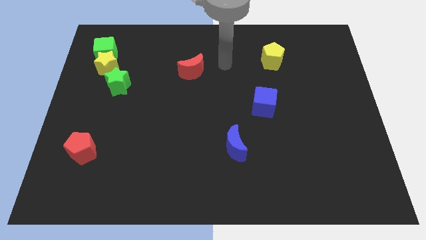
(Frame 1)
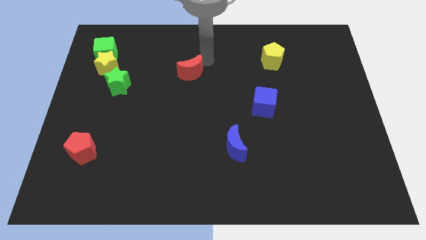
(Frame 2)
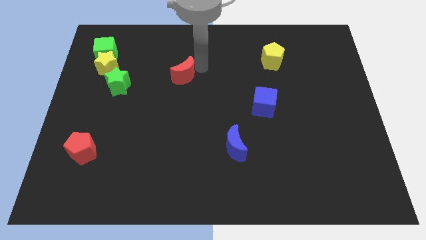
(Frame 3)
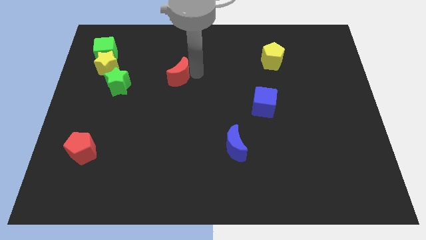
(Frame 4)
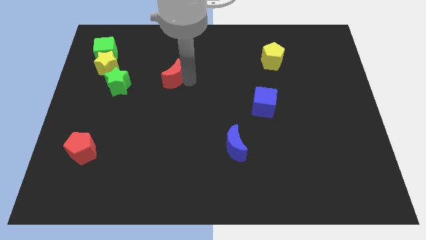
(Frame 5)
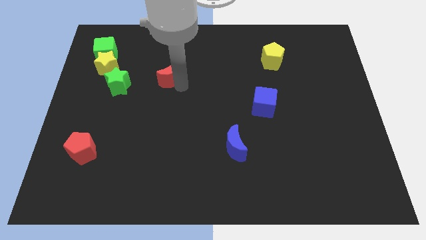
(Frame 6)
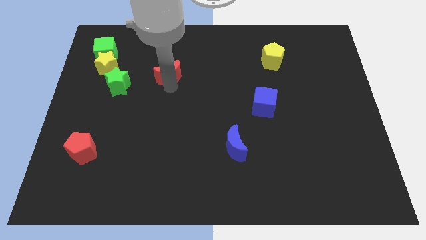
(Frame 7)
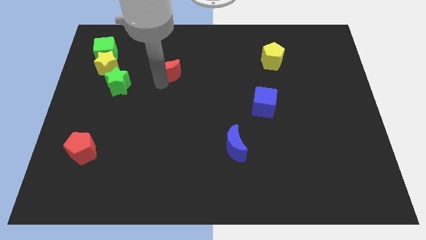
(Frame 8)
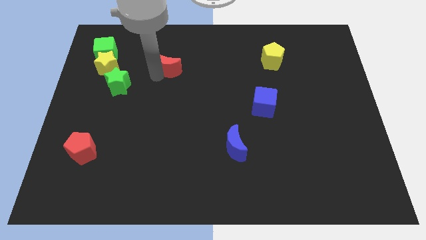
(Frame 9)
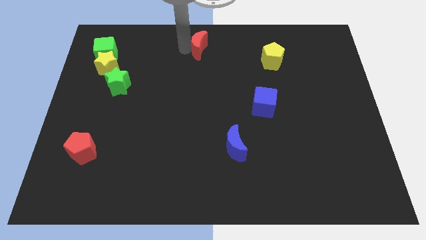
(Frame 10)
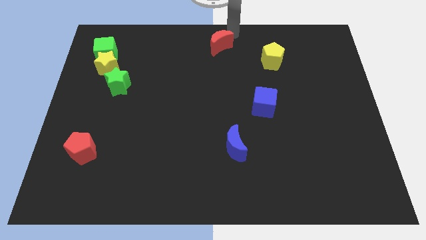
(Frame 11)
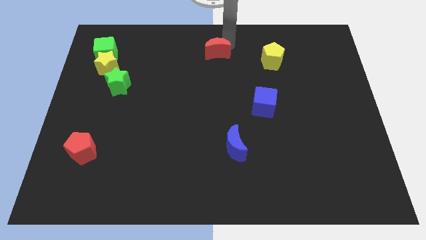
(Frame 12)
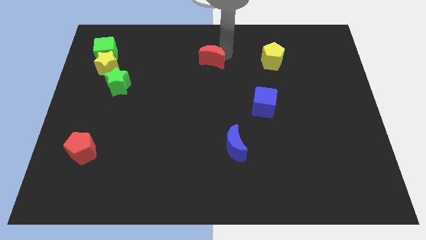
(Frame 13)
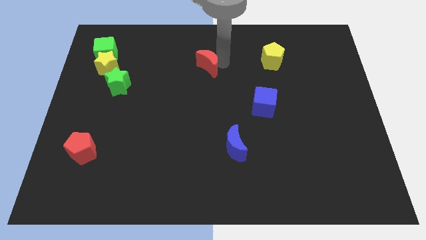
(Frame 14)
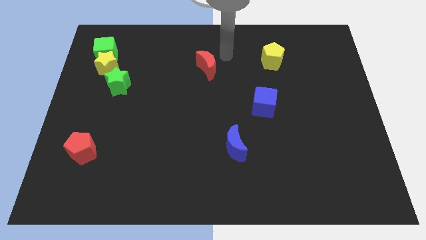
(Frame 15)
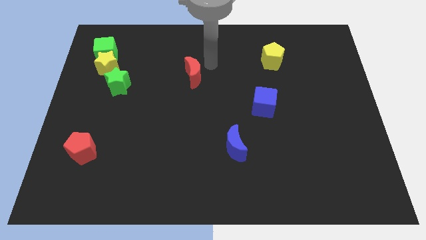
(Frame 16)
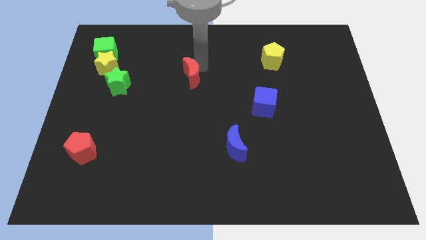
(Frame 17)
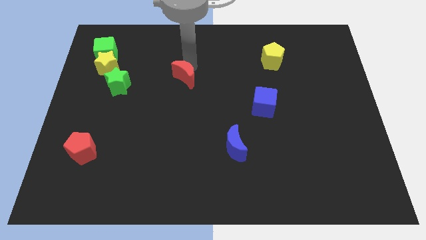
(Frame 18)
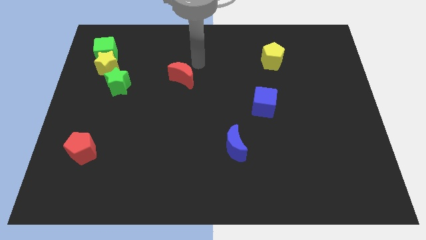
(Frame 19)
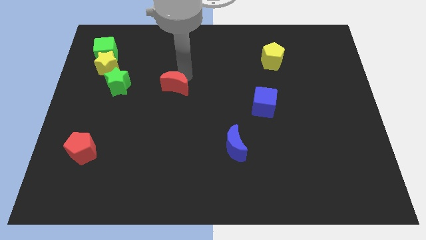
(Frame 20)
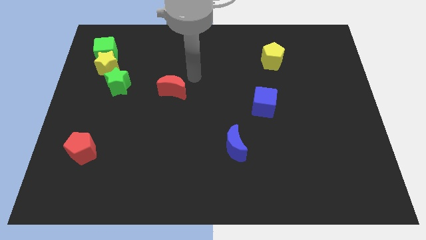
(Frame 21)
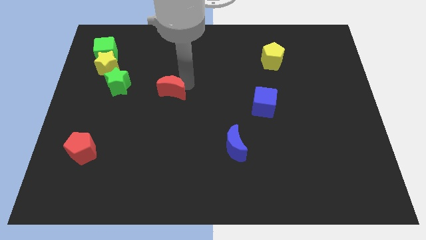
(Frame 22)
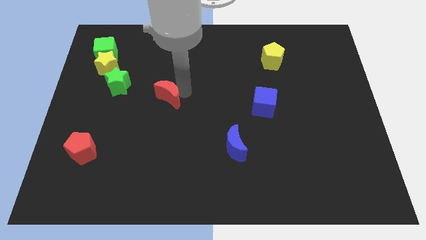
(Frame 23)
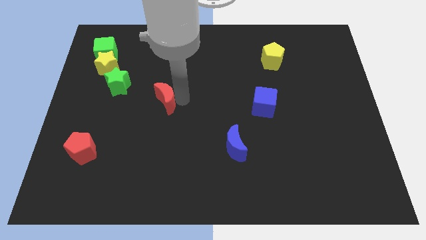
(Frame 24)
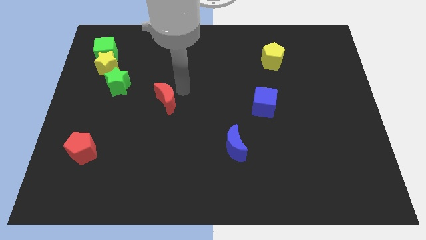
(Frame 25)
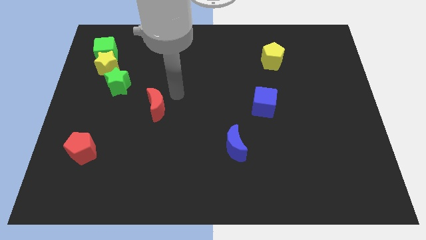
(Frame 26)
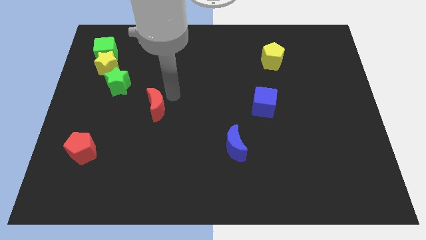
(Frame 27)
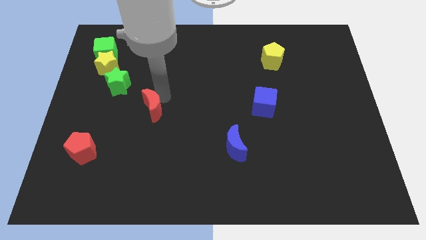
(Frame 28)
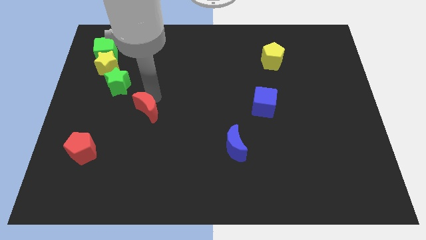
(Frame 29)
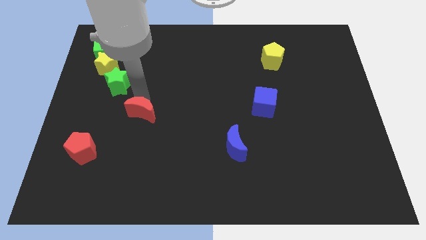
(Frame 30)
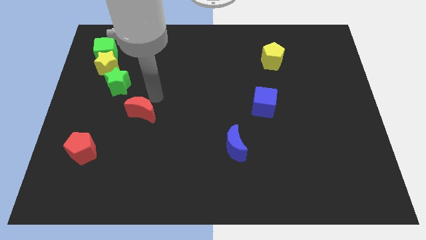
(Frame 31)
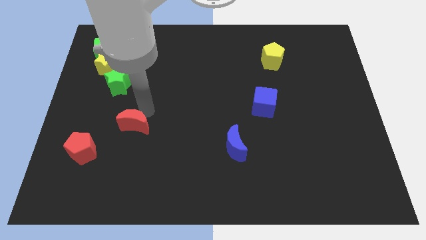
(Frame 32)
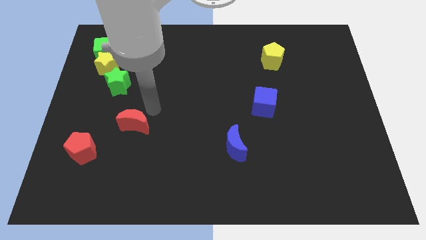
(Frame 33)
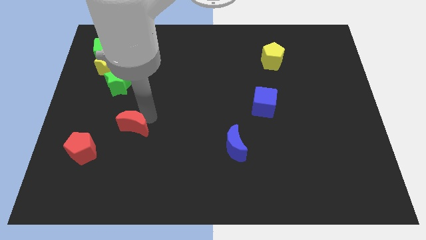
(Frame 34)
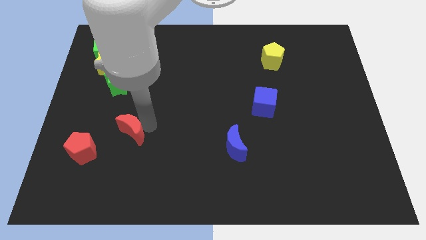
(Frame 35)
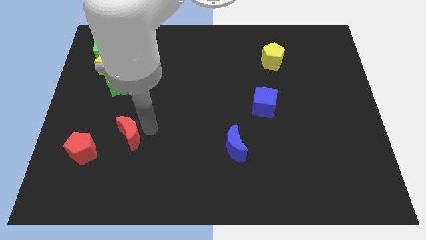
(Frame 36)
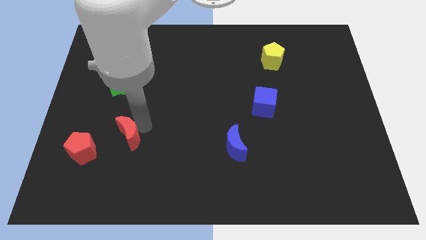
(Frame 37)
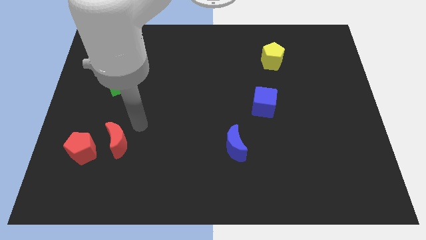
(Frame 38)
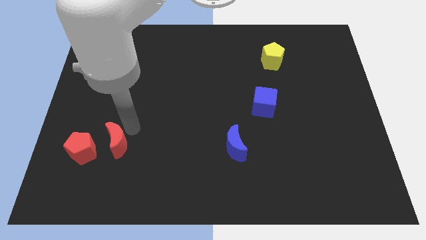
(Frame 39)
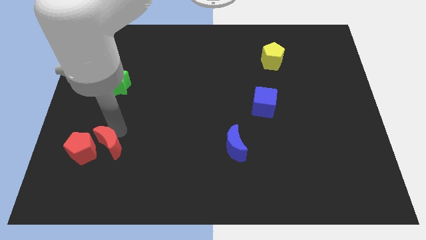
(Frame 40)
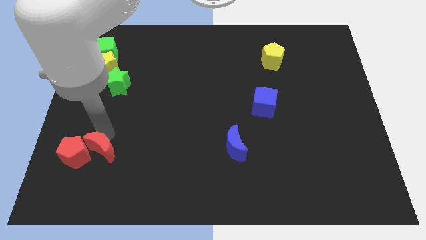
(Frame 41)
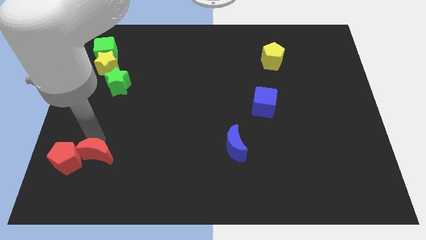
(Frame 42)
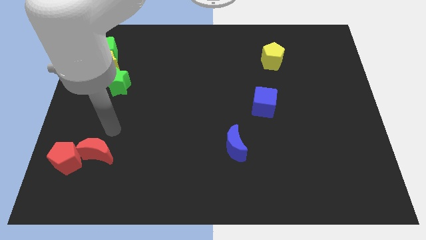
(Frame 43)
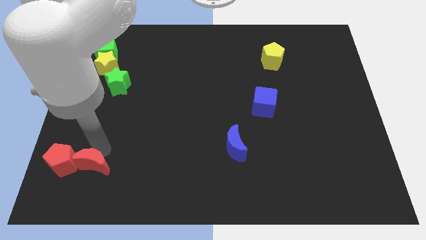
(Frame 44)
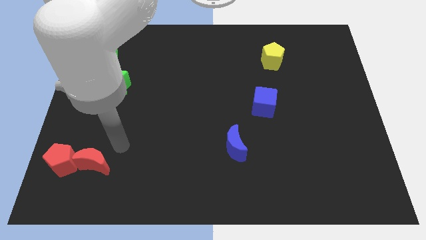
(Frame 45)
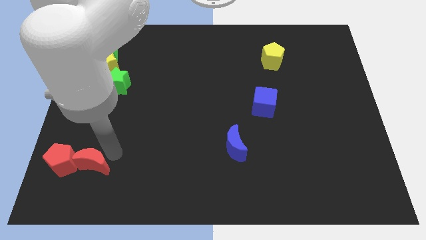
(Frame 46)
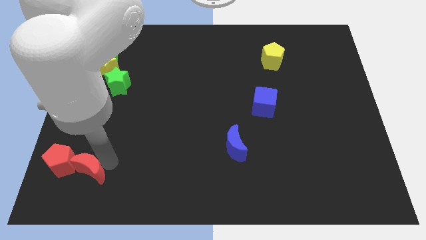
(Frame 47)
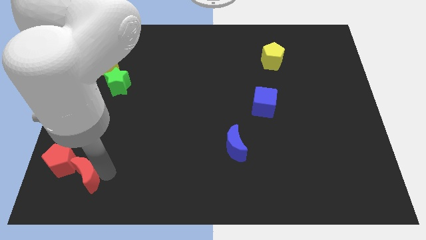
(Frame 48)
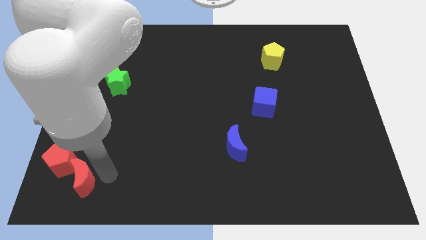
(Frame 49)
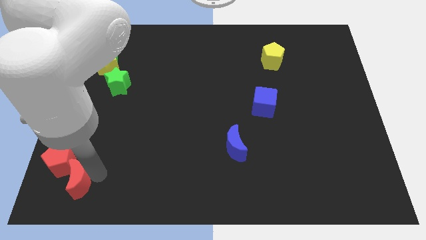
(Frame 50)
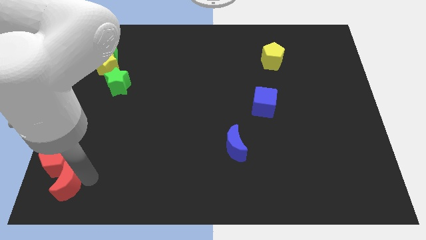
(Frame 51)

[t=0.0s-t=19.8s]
slide the red moon to the bottom left

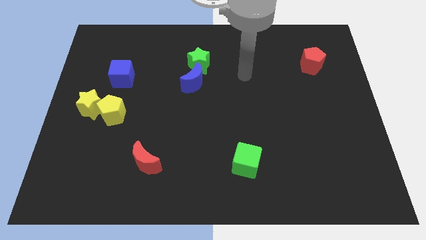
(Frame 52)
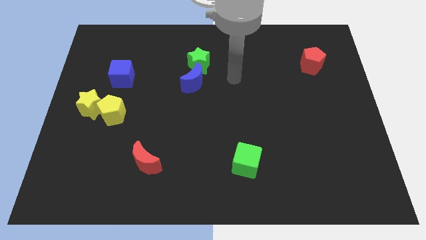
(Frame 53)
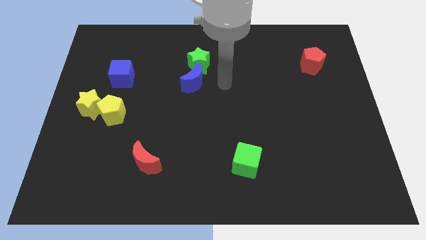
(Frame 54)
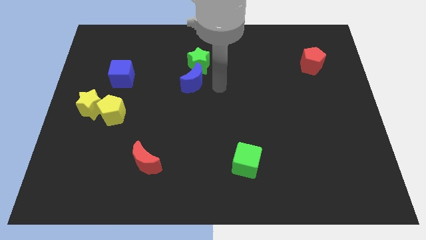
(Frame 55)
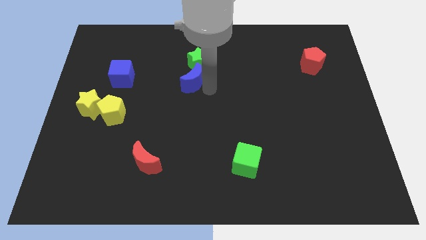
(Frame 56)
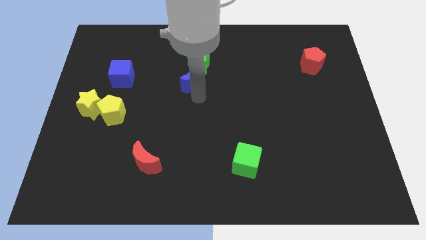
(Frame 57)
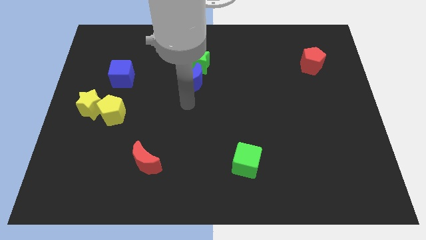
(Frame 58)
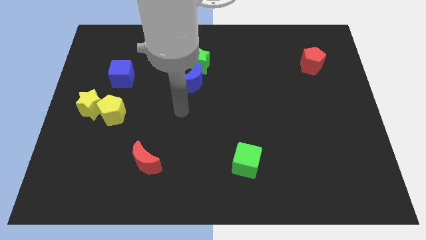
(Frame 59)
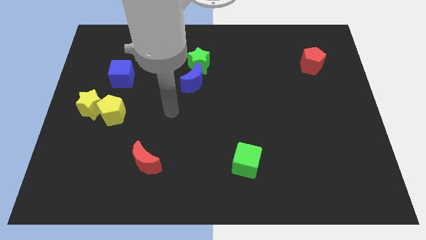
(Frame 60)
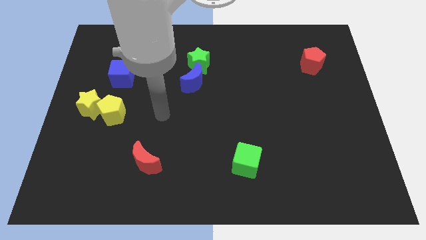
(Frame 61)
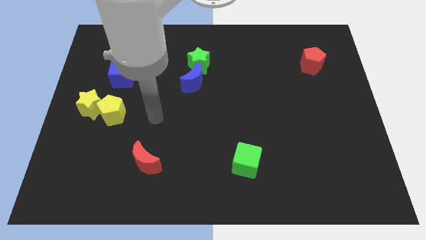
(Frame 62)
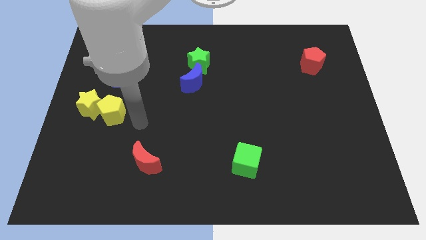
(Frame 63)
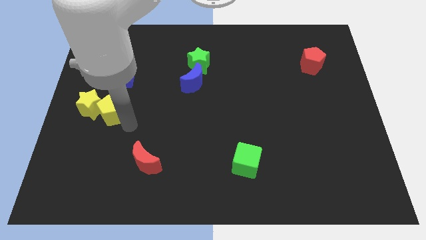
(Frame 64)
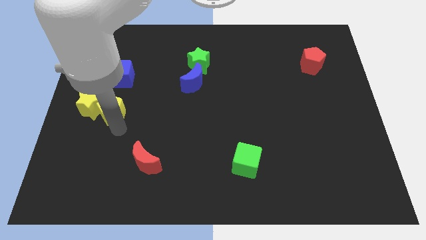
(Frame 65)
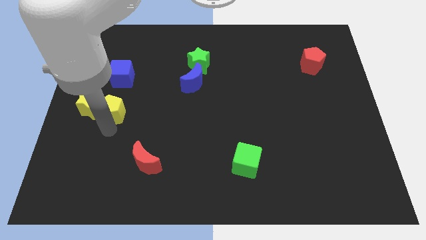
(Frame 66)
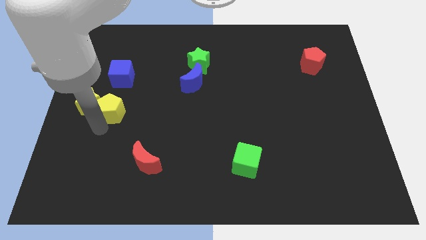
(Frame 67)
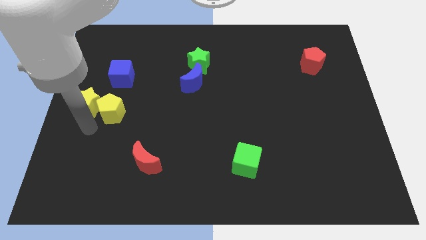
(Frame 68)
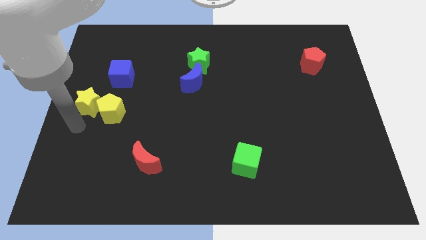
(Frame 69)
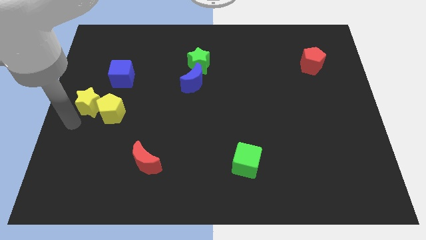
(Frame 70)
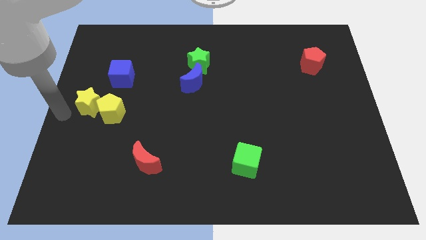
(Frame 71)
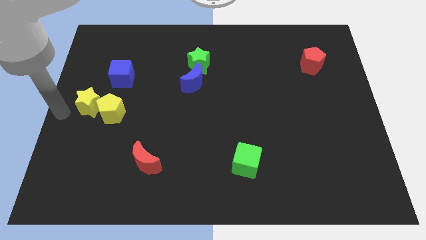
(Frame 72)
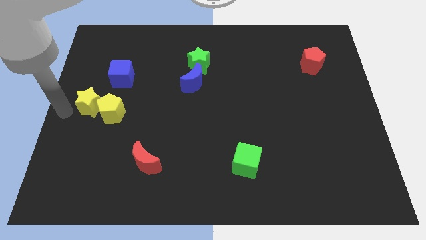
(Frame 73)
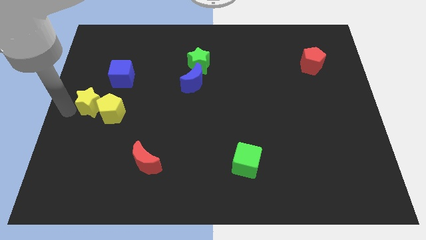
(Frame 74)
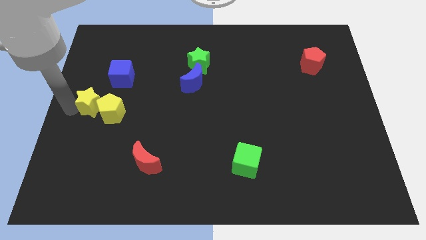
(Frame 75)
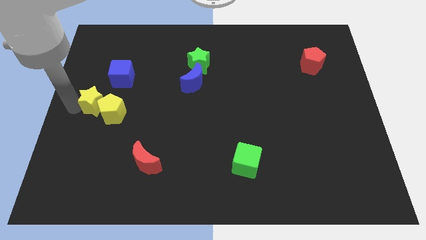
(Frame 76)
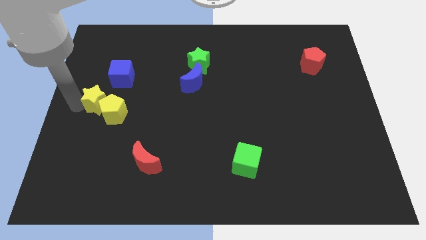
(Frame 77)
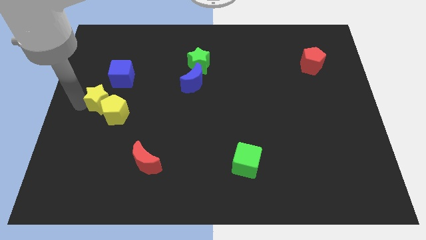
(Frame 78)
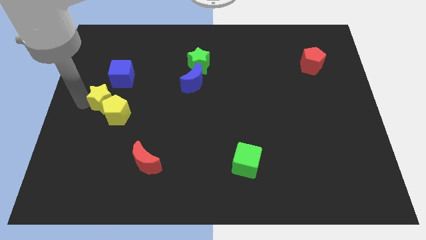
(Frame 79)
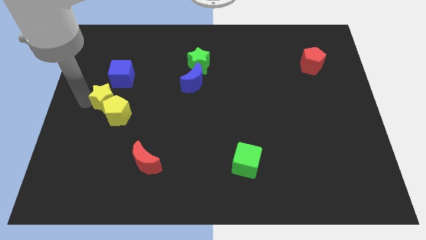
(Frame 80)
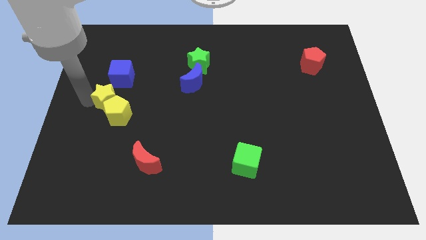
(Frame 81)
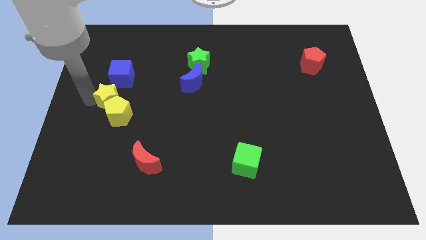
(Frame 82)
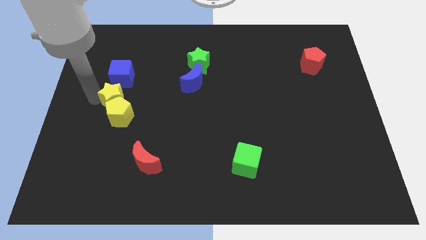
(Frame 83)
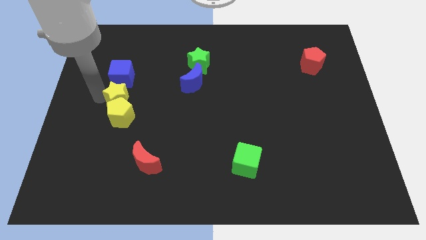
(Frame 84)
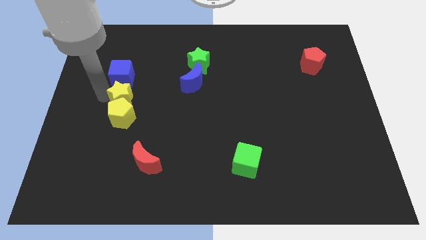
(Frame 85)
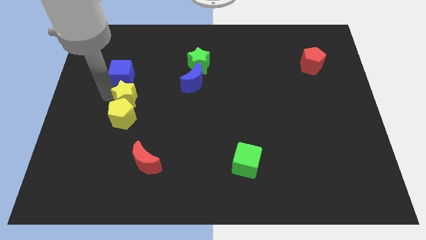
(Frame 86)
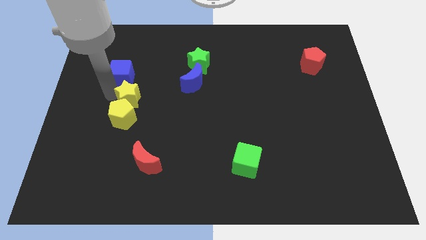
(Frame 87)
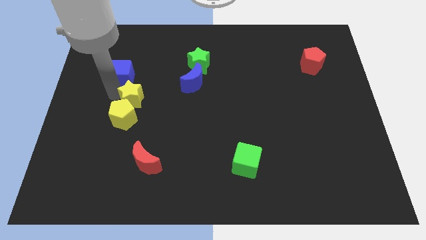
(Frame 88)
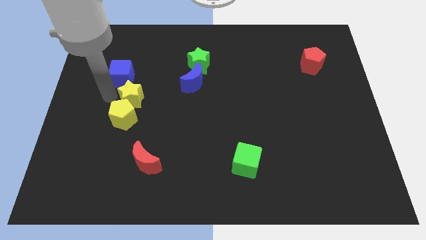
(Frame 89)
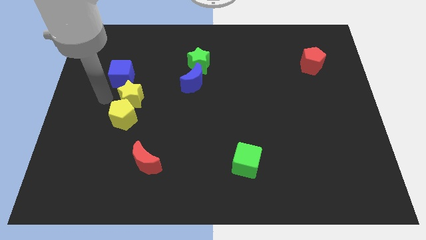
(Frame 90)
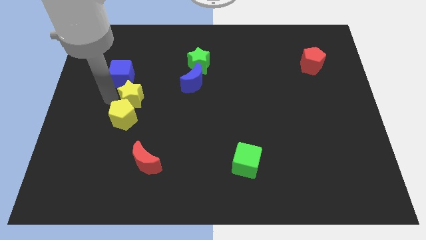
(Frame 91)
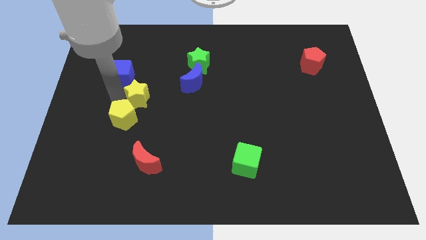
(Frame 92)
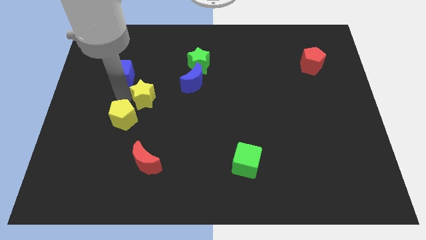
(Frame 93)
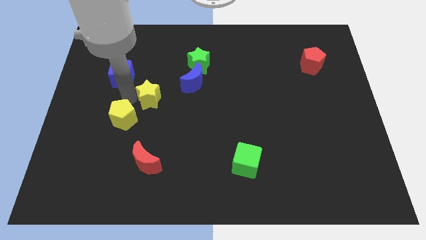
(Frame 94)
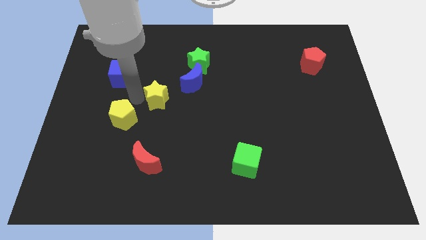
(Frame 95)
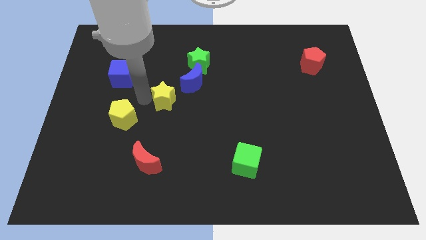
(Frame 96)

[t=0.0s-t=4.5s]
slide the yellow star to the middle of the board
